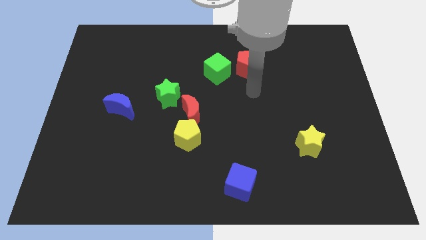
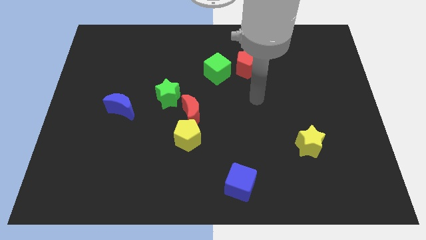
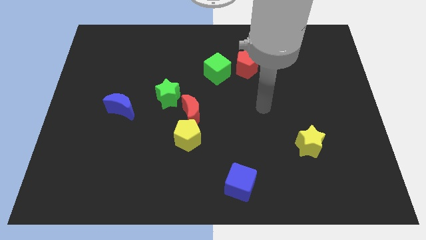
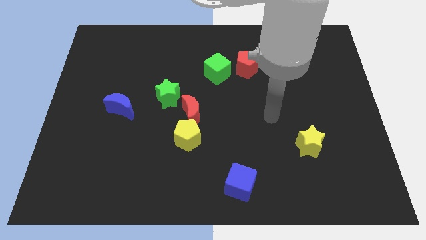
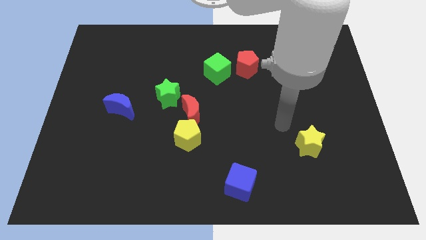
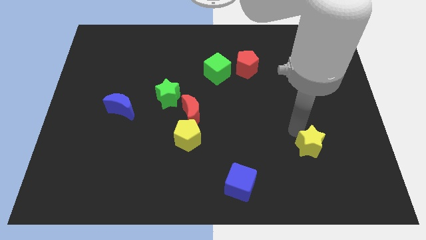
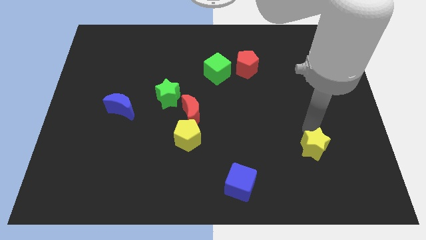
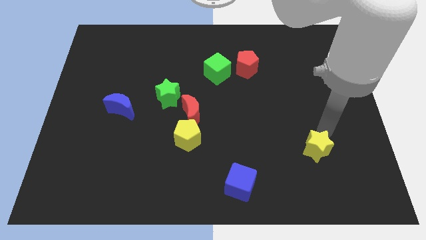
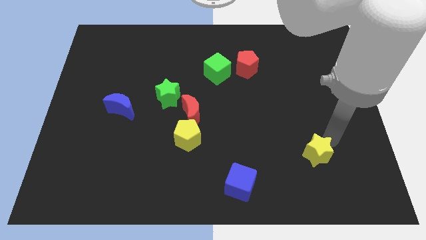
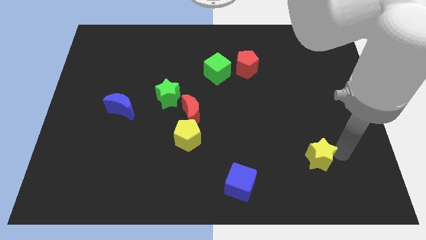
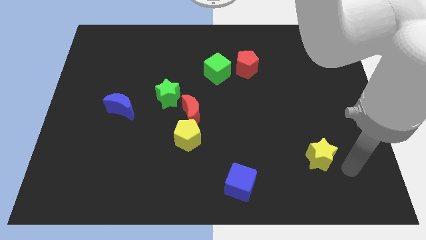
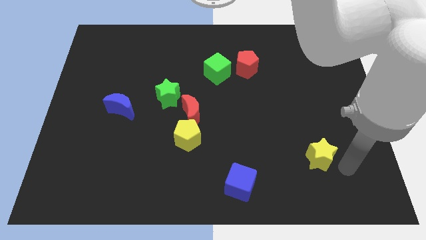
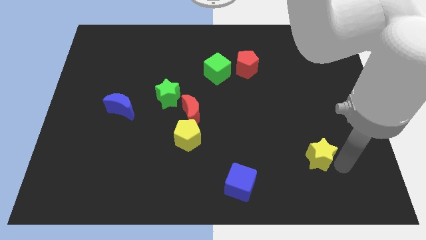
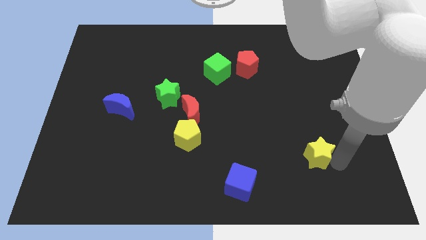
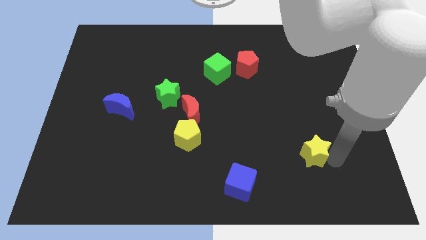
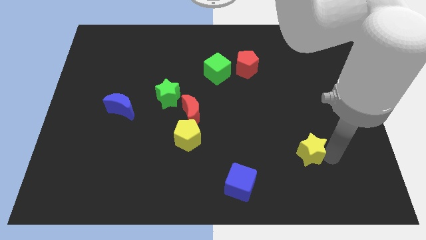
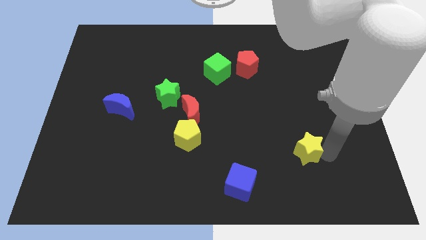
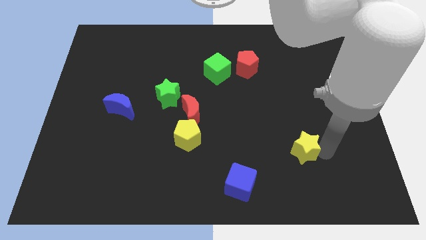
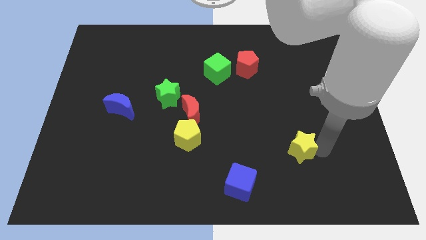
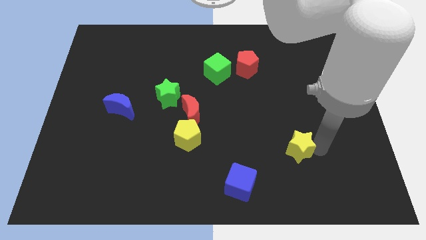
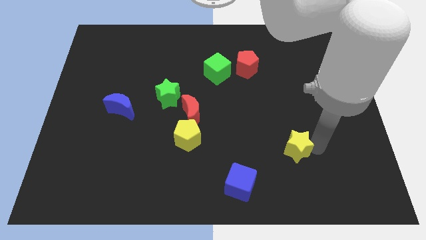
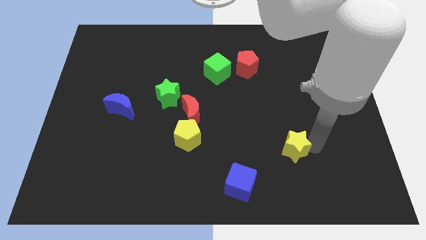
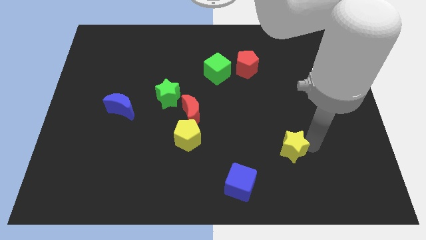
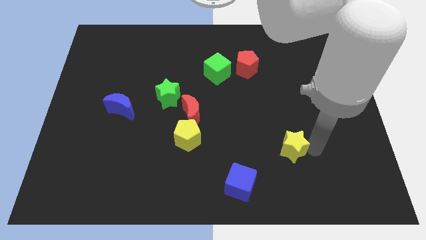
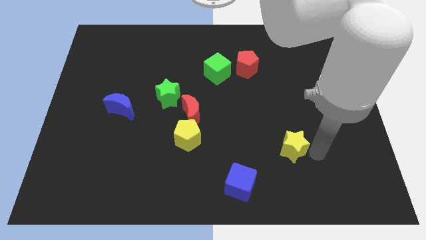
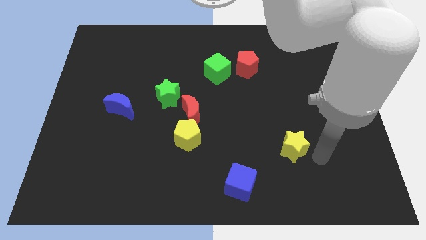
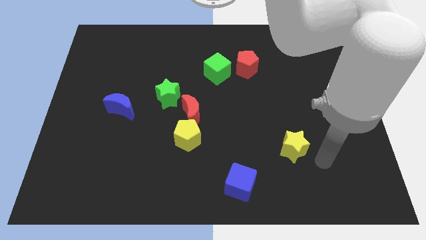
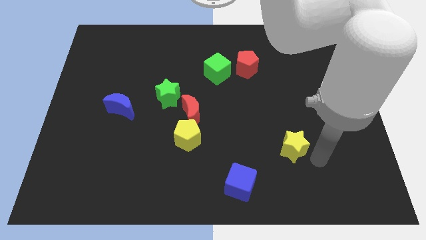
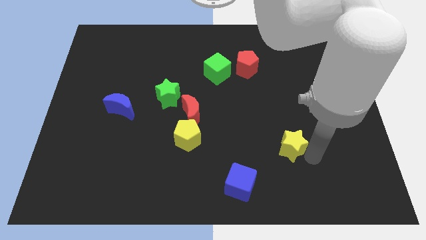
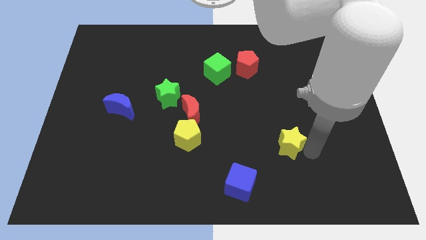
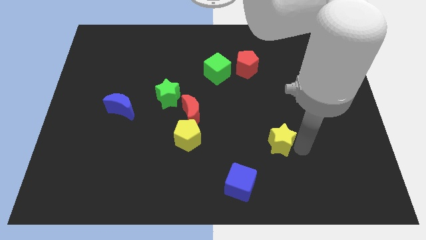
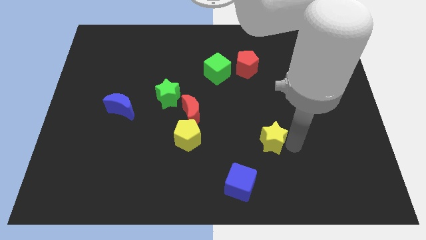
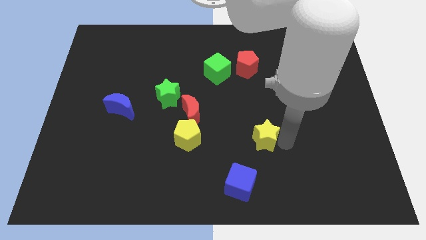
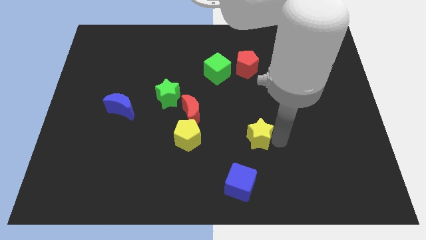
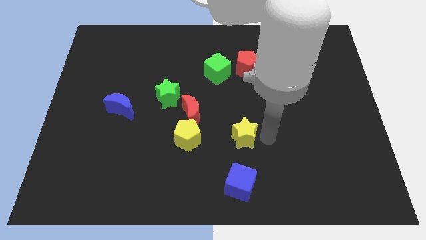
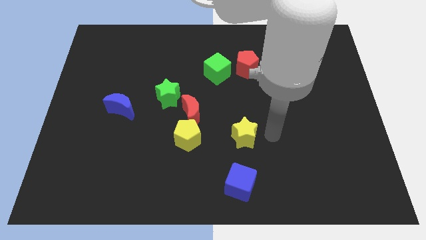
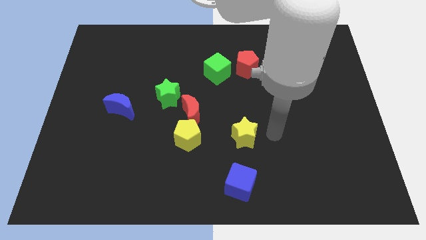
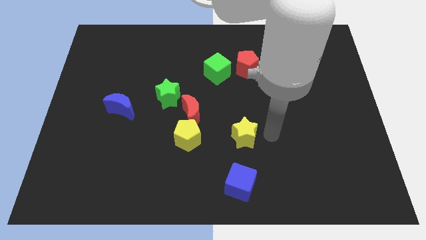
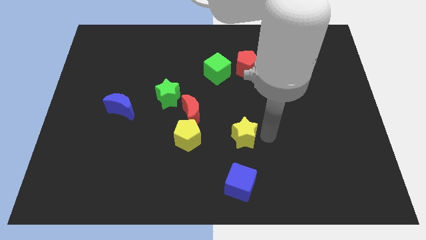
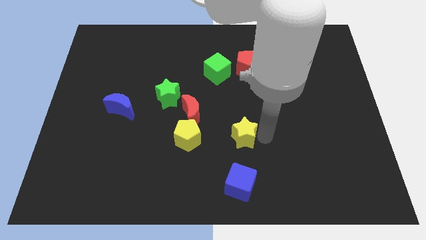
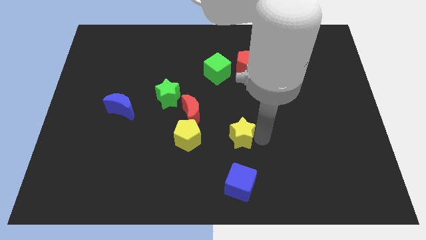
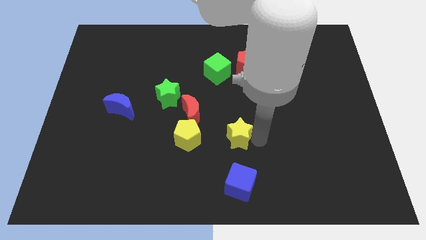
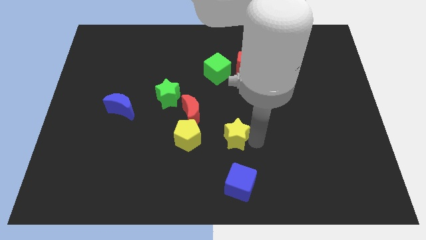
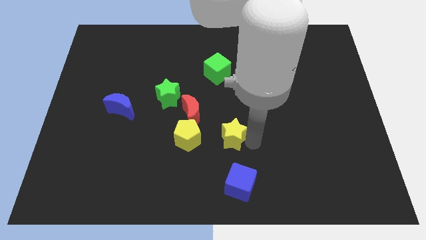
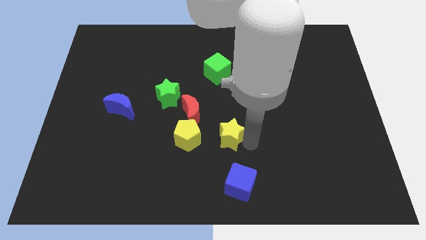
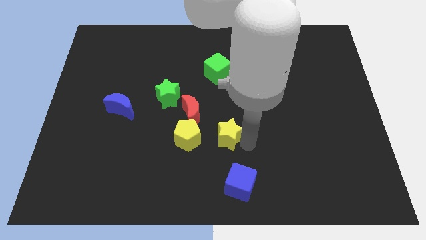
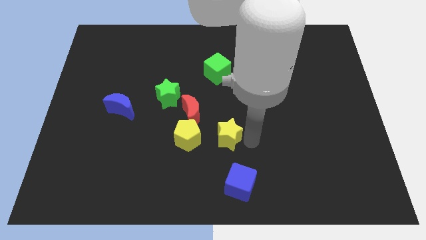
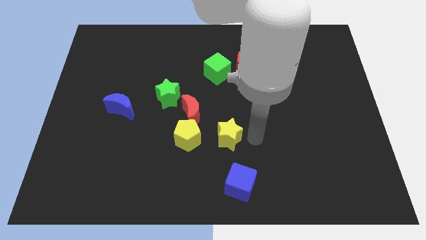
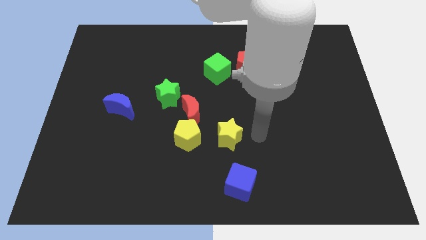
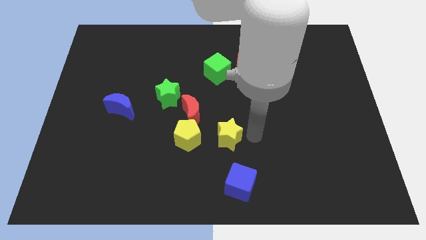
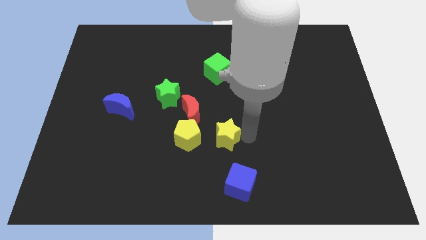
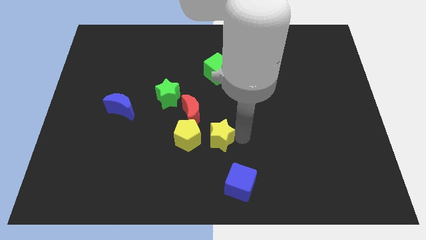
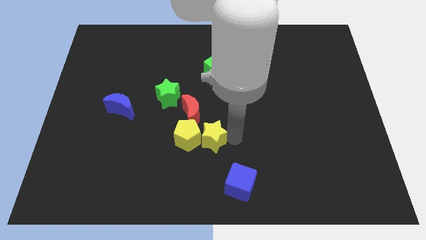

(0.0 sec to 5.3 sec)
slide the yellow star close to the yellow pentagon

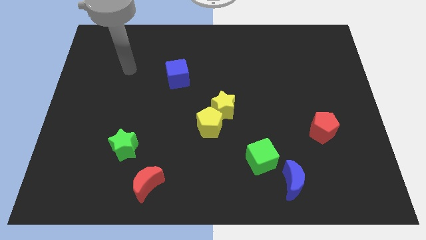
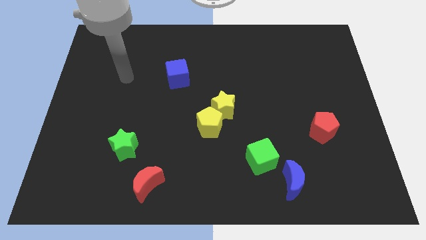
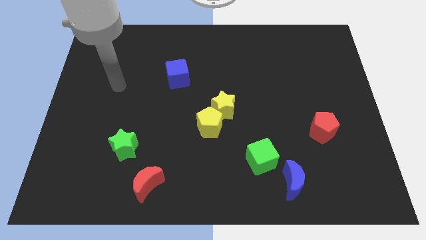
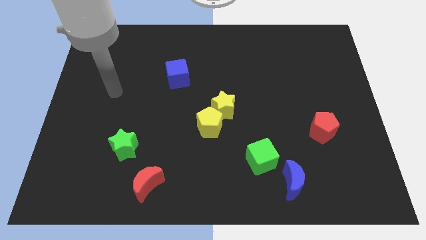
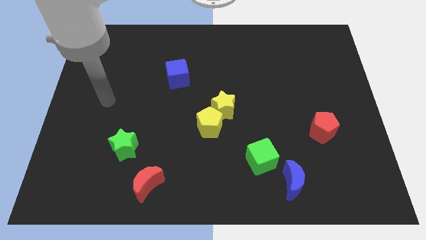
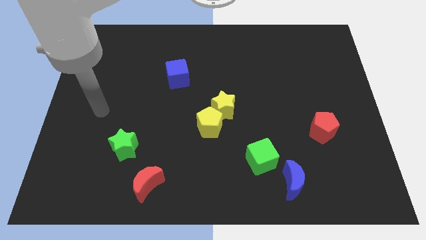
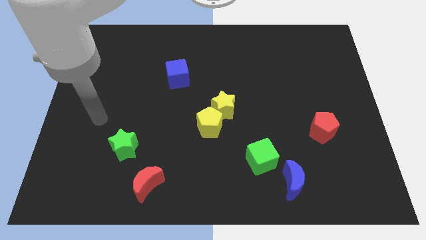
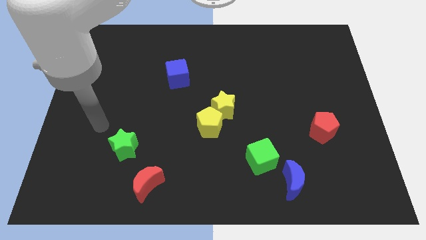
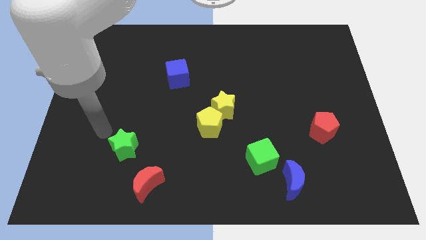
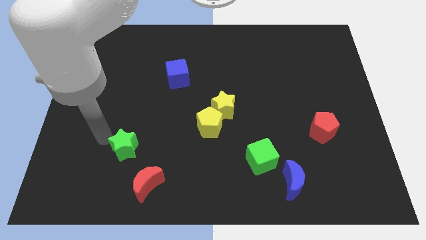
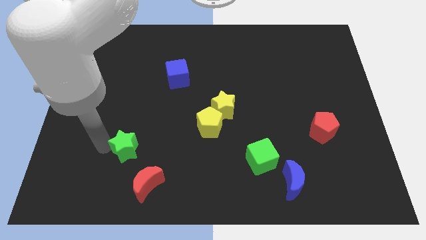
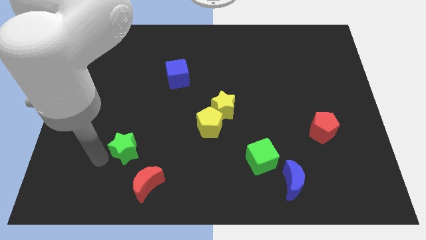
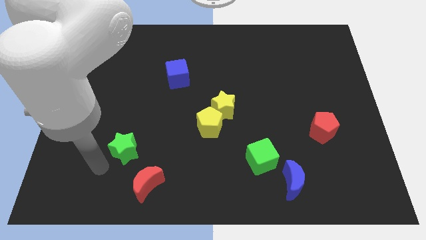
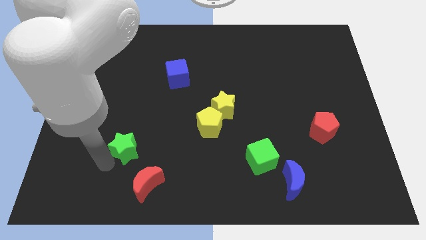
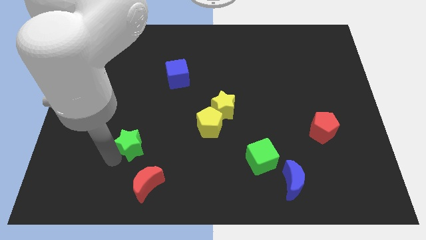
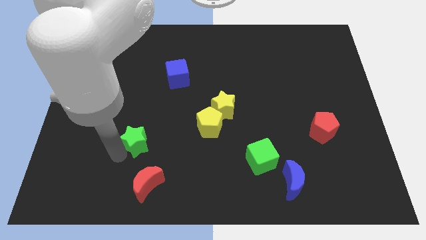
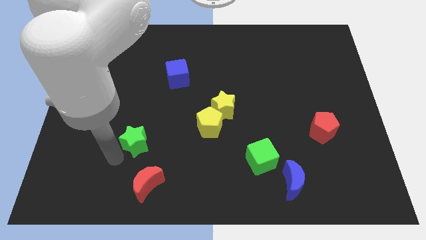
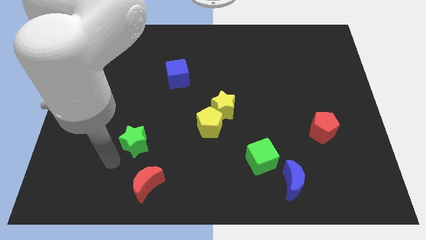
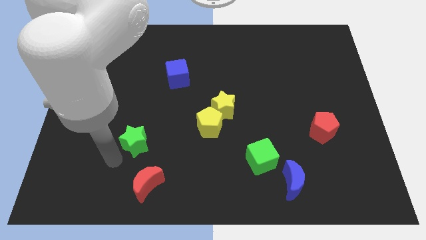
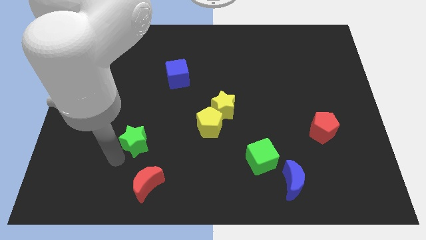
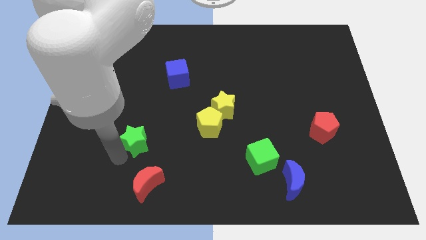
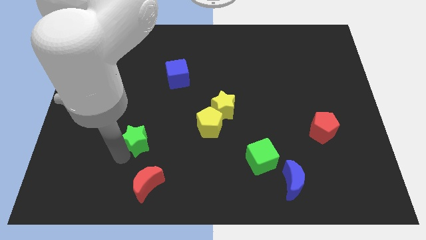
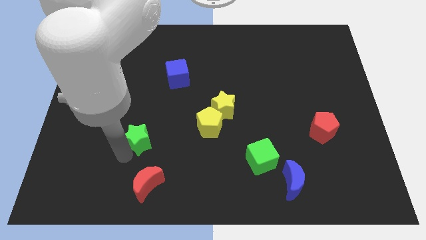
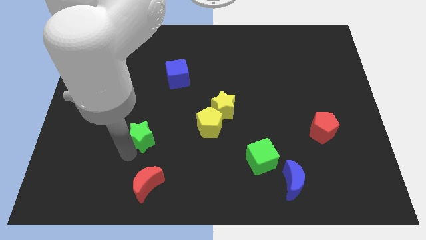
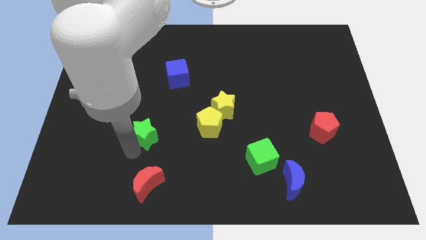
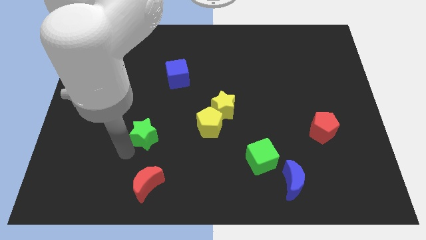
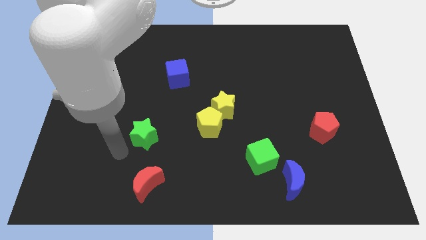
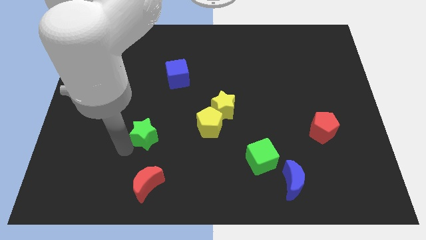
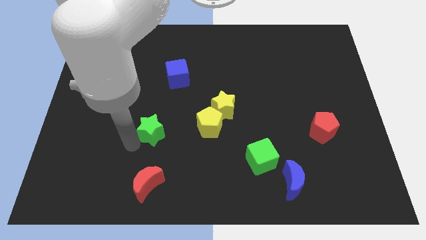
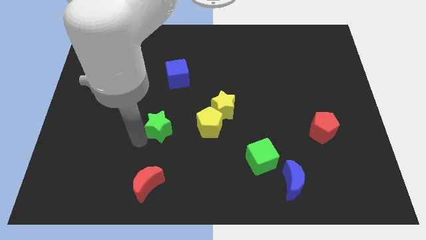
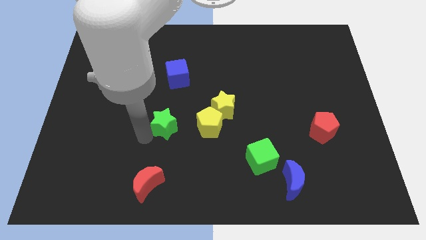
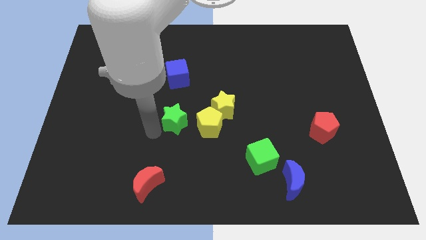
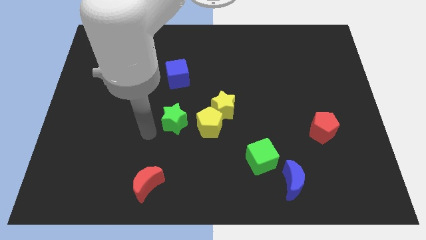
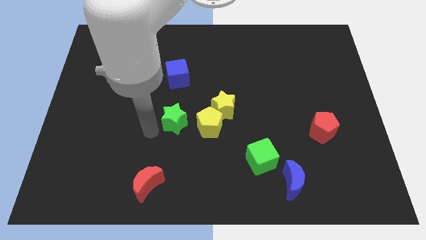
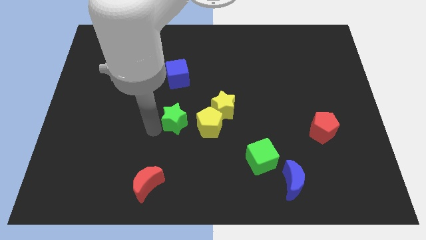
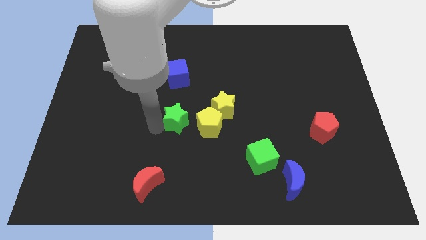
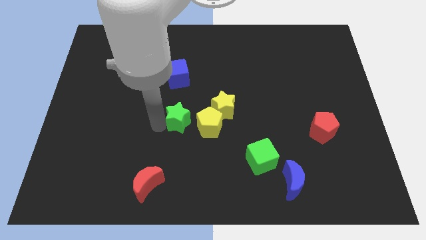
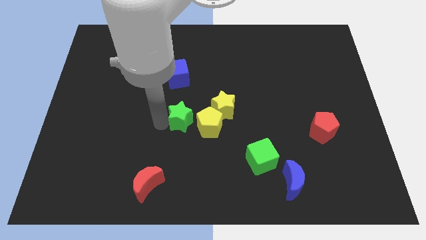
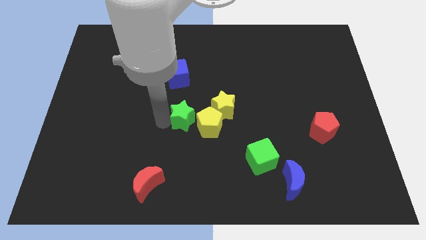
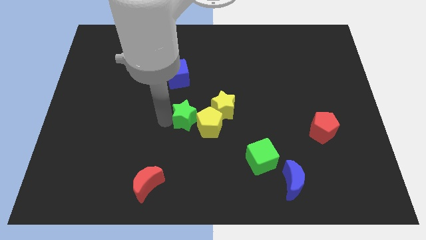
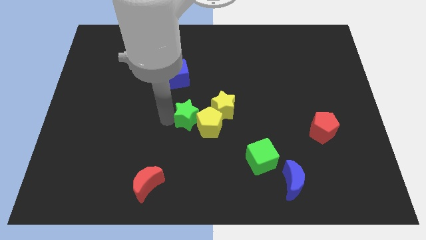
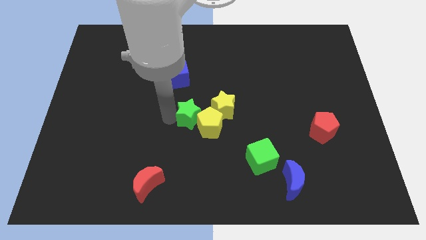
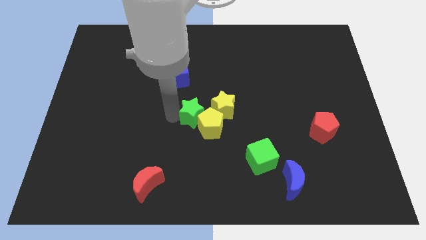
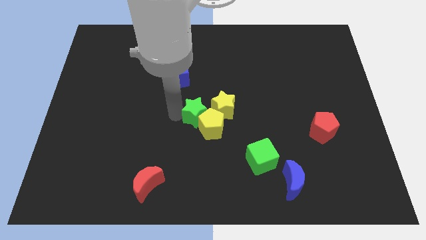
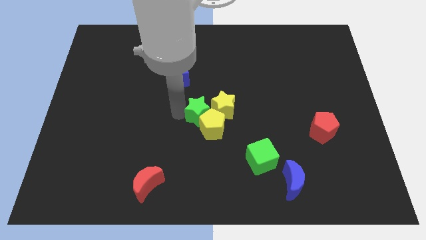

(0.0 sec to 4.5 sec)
move the green star towards the yellow star
